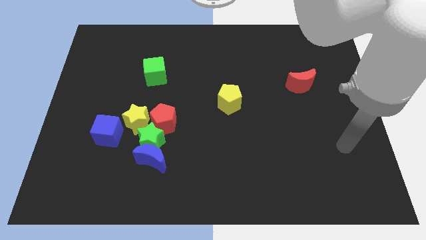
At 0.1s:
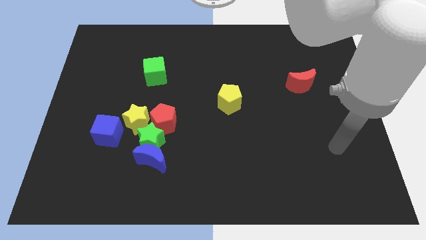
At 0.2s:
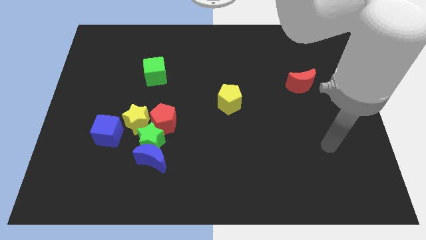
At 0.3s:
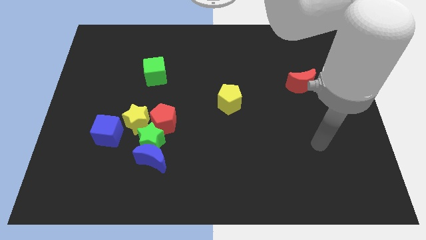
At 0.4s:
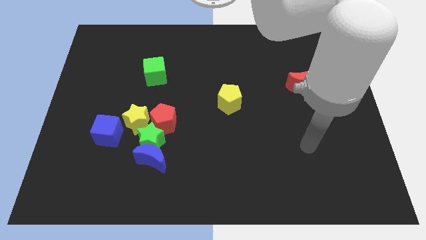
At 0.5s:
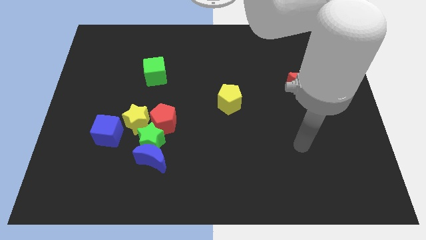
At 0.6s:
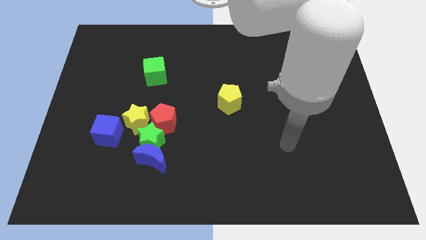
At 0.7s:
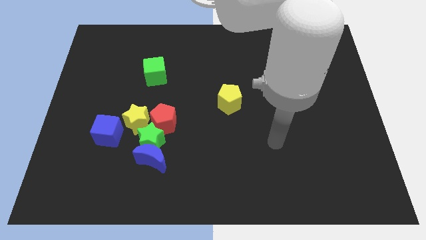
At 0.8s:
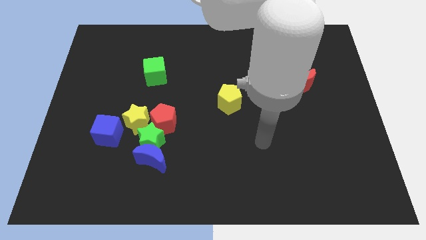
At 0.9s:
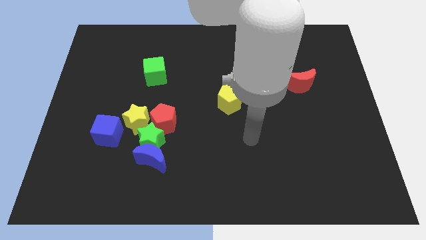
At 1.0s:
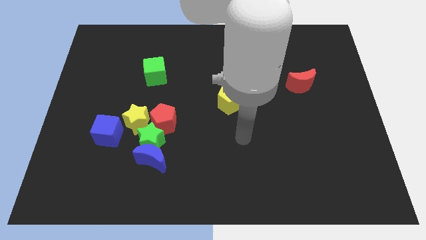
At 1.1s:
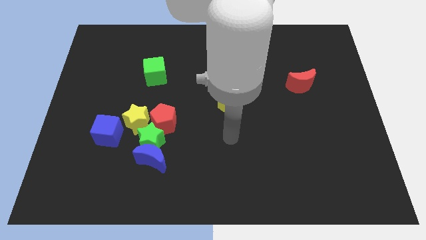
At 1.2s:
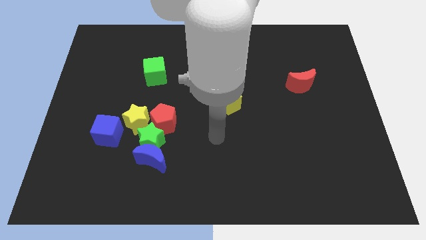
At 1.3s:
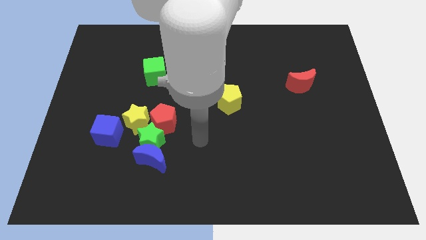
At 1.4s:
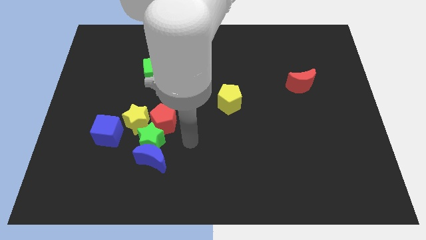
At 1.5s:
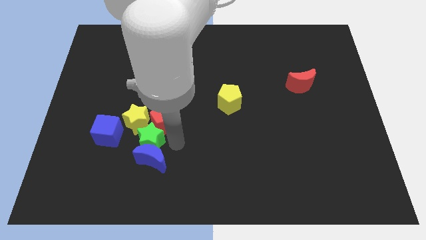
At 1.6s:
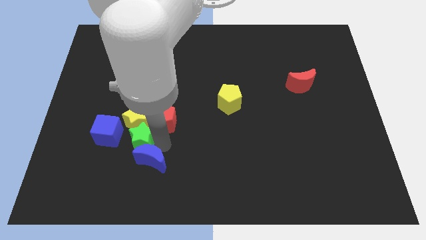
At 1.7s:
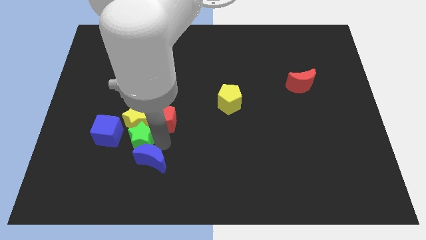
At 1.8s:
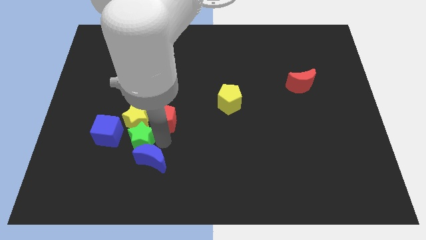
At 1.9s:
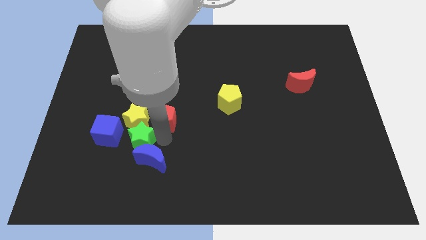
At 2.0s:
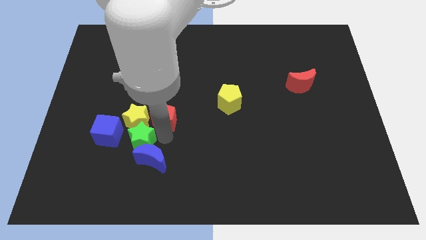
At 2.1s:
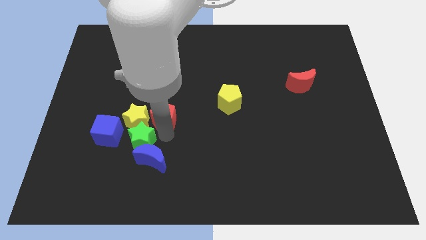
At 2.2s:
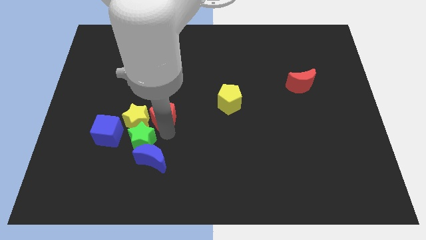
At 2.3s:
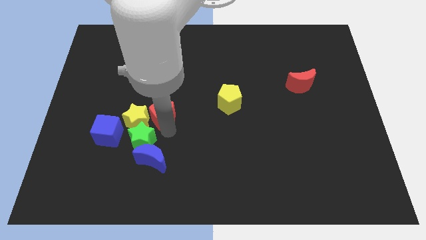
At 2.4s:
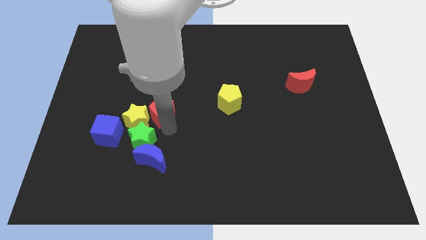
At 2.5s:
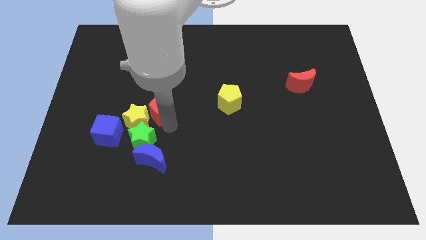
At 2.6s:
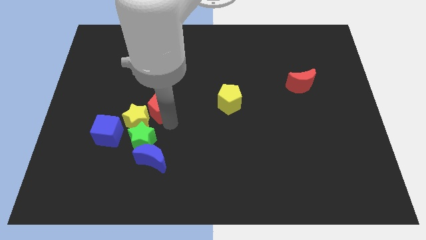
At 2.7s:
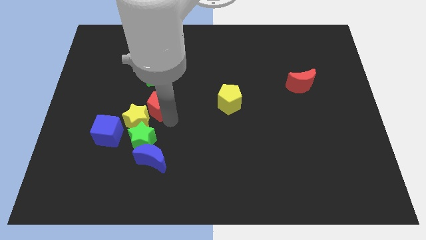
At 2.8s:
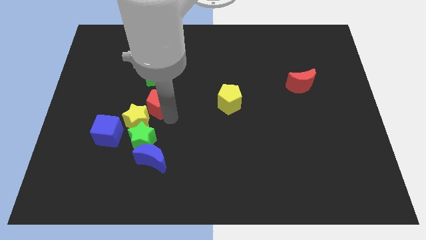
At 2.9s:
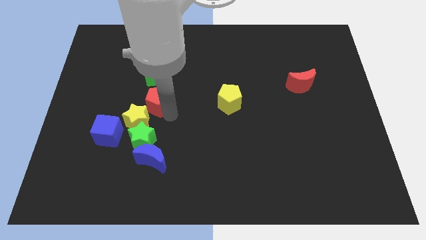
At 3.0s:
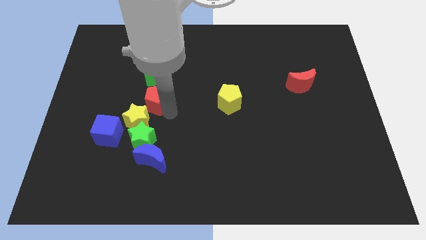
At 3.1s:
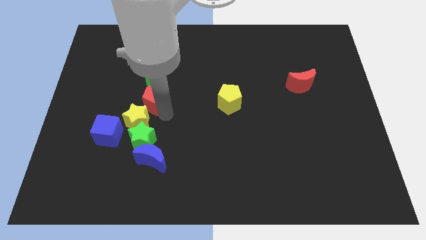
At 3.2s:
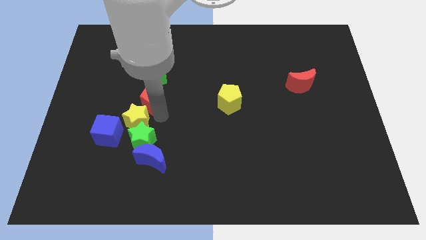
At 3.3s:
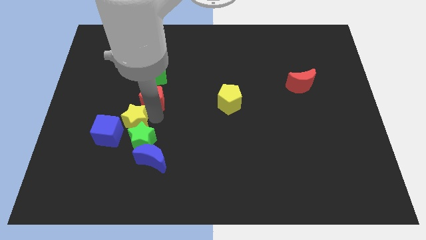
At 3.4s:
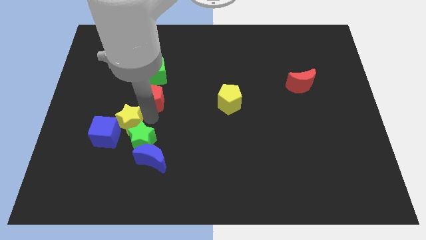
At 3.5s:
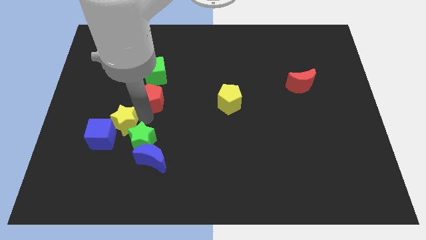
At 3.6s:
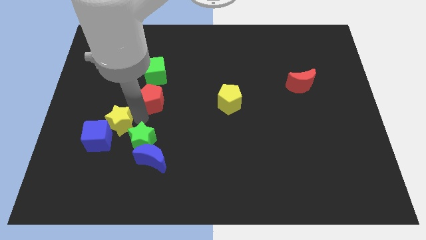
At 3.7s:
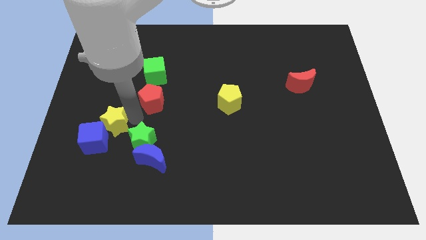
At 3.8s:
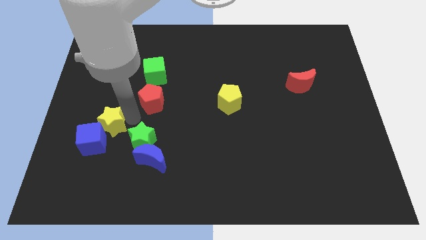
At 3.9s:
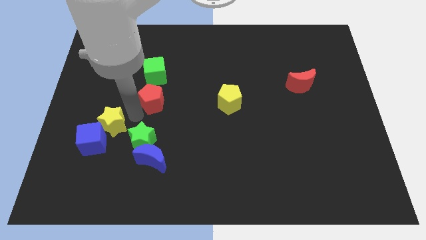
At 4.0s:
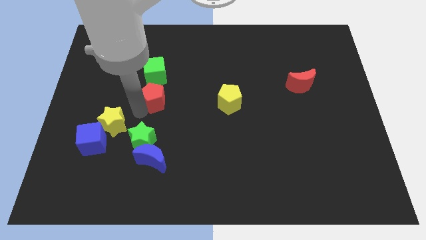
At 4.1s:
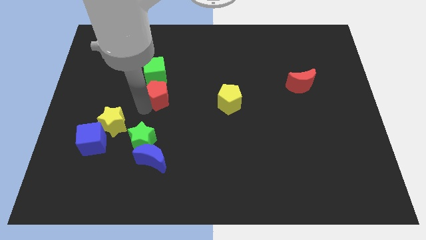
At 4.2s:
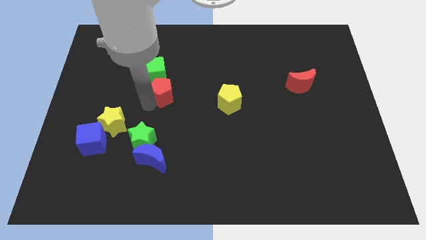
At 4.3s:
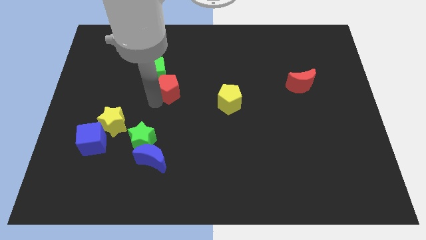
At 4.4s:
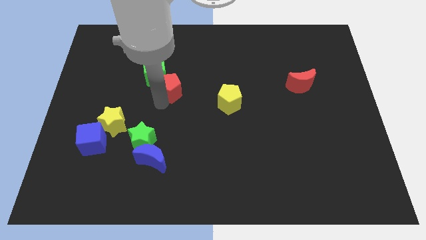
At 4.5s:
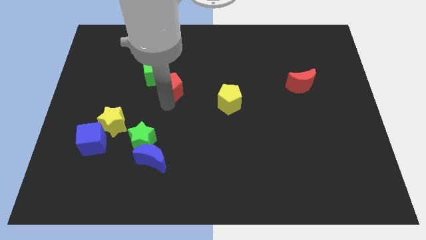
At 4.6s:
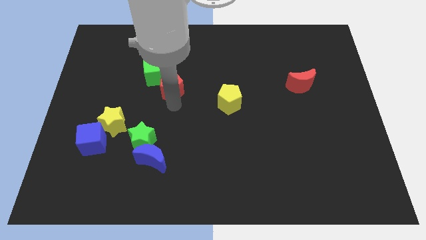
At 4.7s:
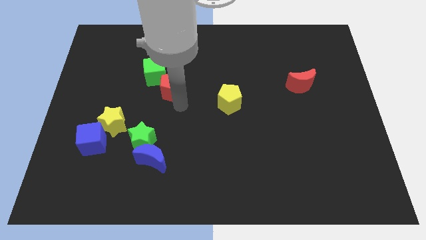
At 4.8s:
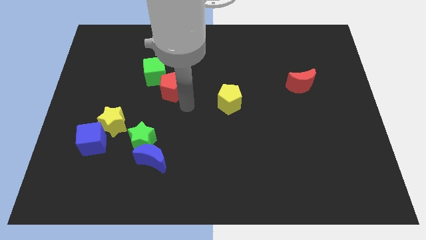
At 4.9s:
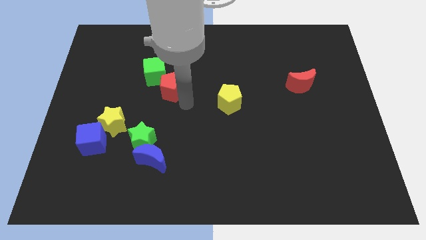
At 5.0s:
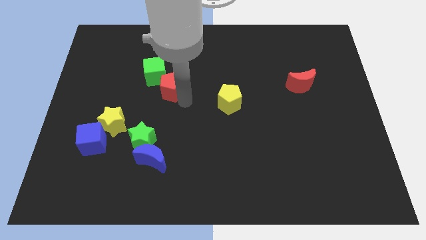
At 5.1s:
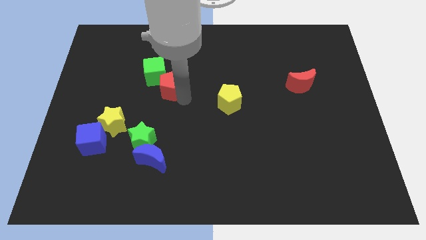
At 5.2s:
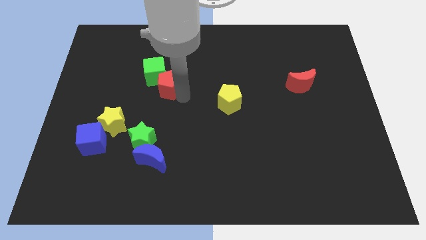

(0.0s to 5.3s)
push the red pentagon towards the green cube

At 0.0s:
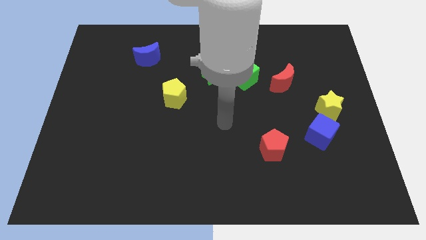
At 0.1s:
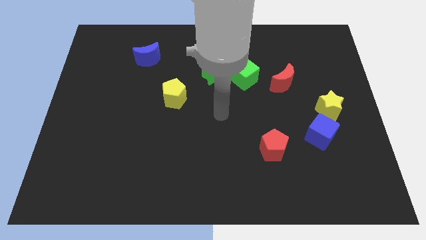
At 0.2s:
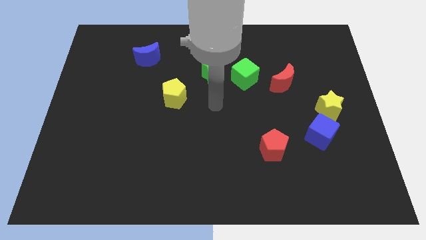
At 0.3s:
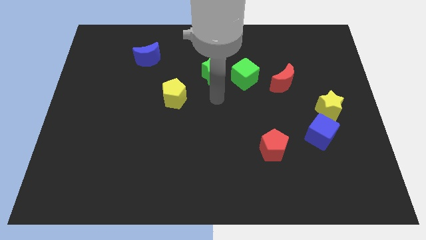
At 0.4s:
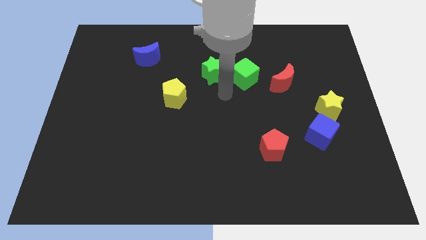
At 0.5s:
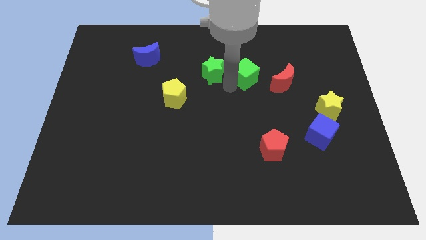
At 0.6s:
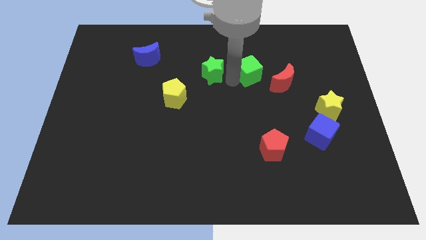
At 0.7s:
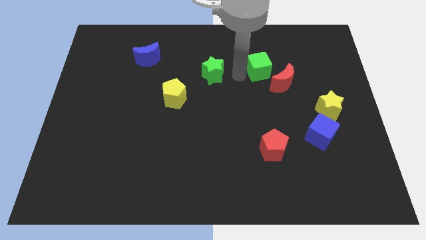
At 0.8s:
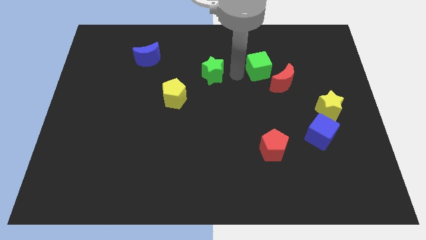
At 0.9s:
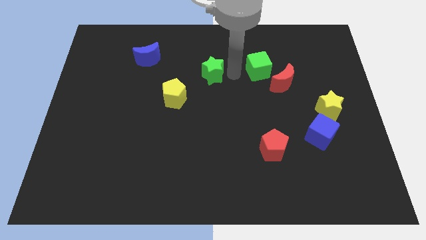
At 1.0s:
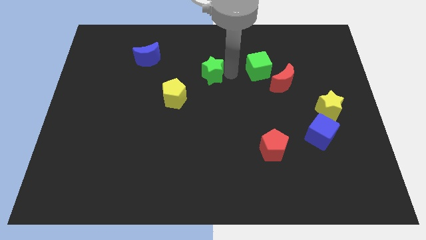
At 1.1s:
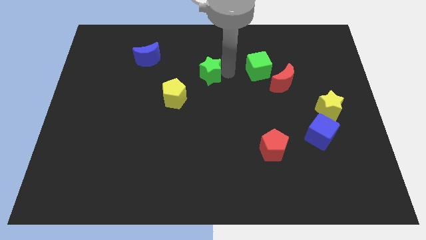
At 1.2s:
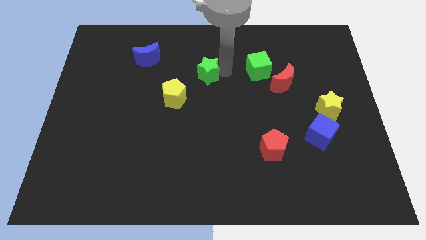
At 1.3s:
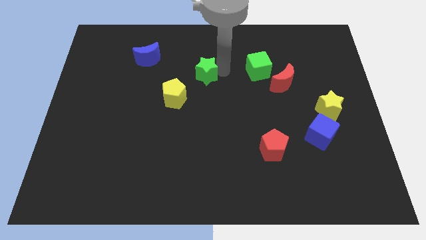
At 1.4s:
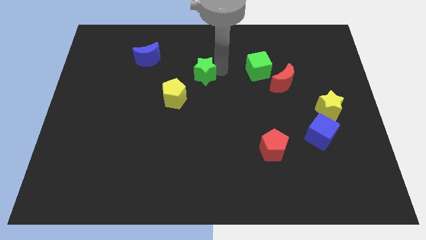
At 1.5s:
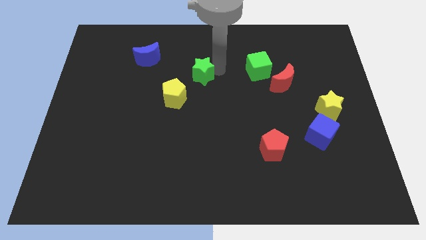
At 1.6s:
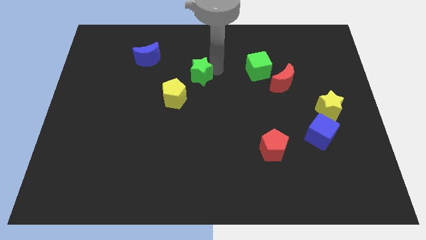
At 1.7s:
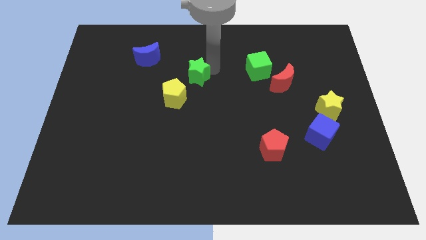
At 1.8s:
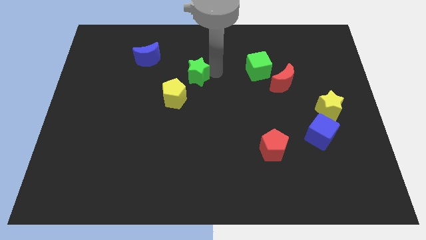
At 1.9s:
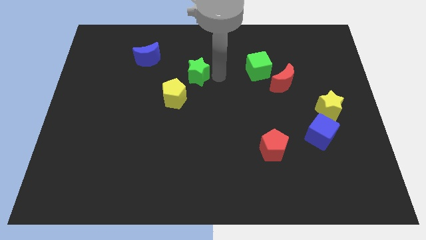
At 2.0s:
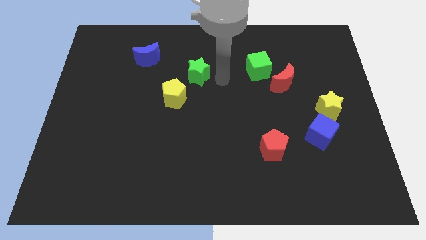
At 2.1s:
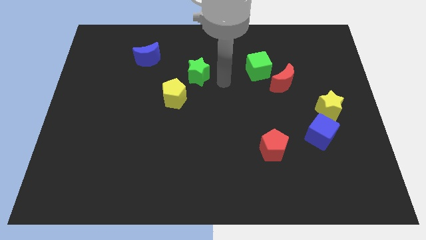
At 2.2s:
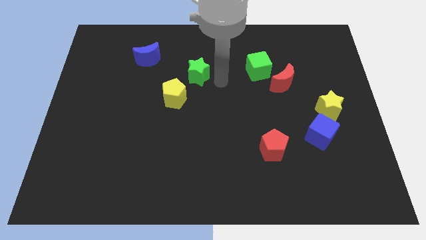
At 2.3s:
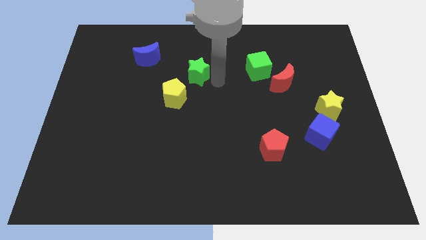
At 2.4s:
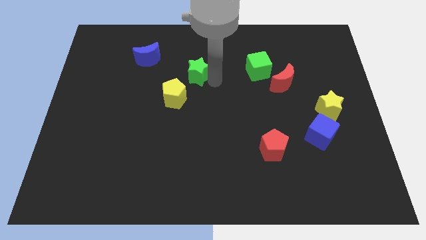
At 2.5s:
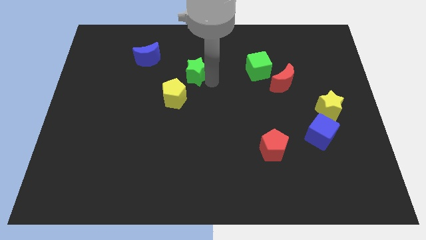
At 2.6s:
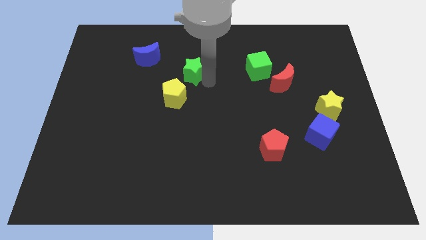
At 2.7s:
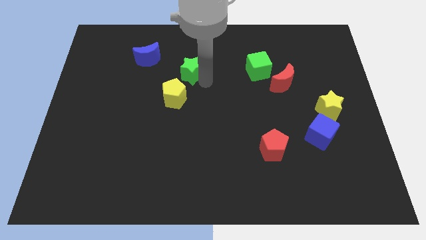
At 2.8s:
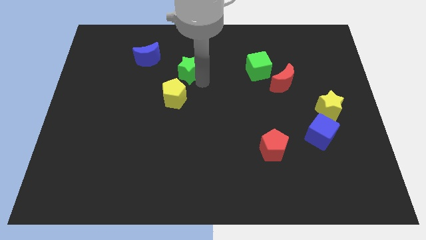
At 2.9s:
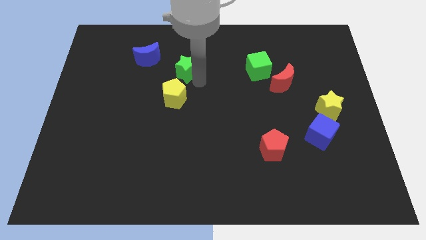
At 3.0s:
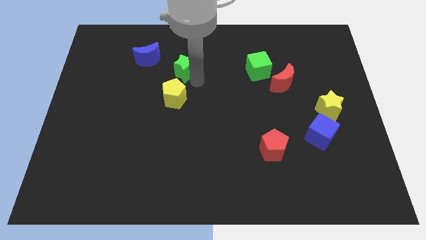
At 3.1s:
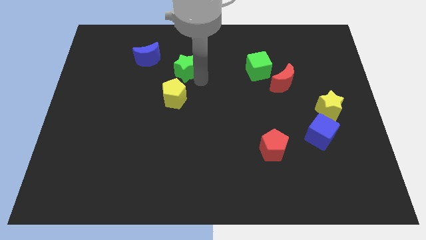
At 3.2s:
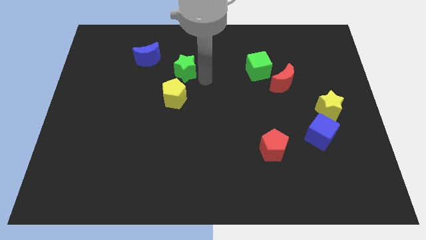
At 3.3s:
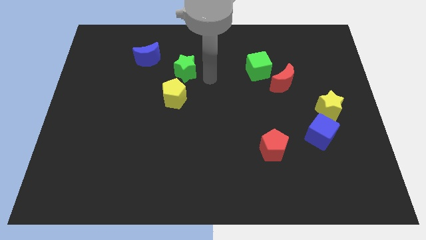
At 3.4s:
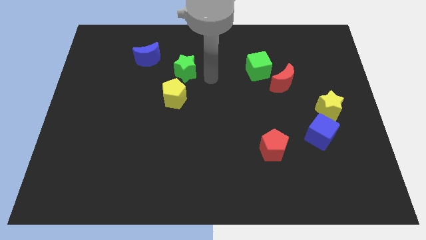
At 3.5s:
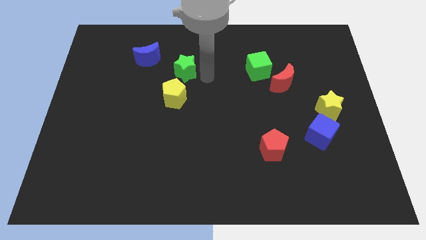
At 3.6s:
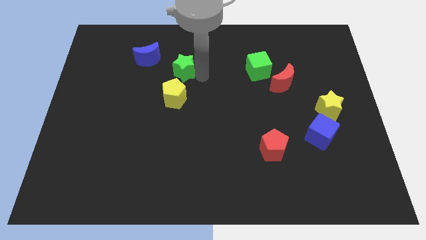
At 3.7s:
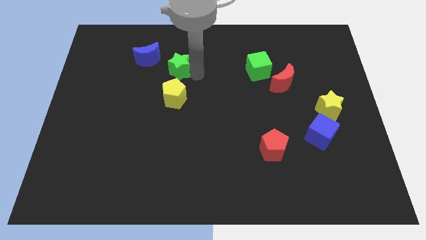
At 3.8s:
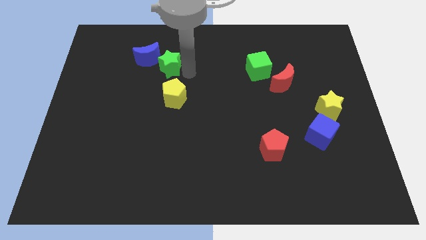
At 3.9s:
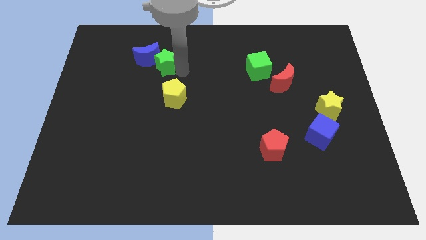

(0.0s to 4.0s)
push the green star towards the blue moon
